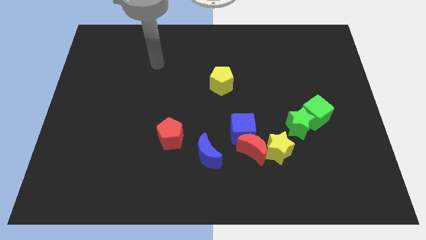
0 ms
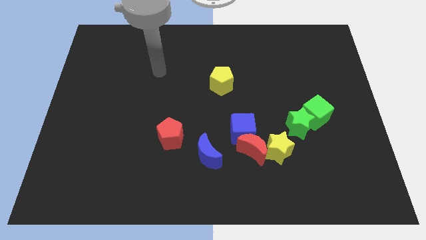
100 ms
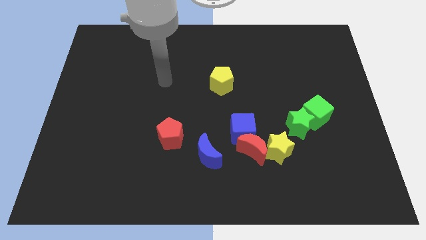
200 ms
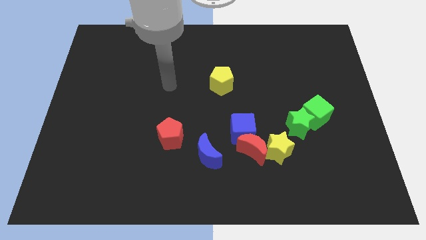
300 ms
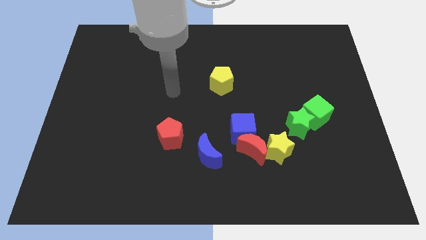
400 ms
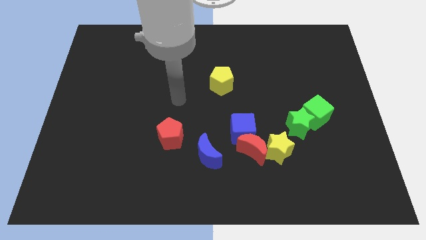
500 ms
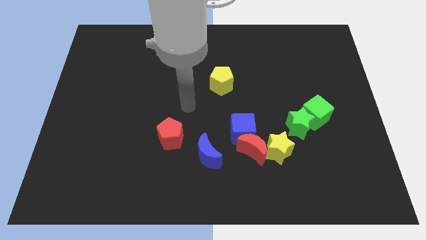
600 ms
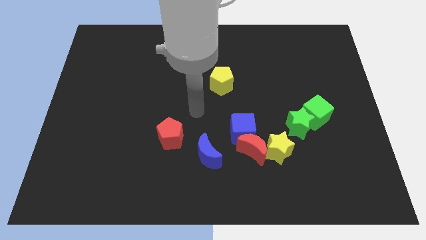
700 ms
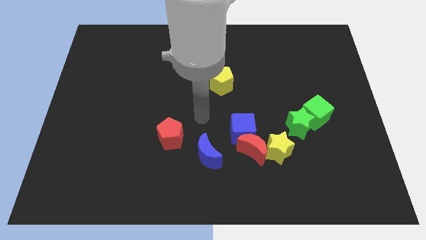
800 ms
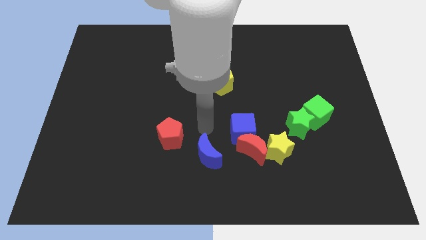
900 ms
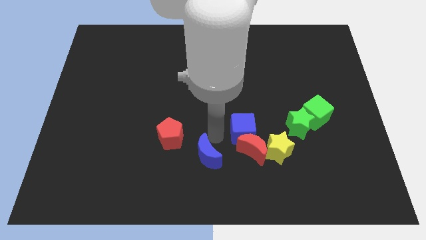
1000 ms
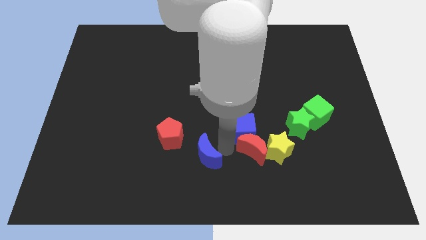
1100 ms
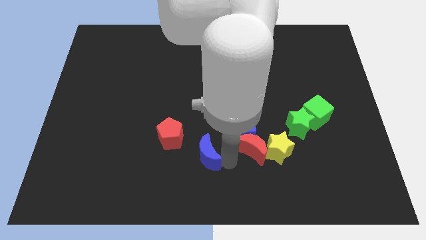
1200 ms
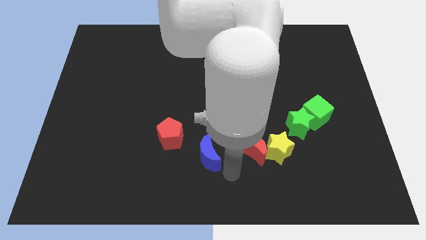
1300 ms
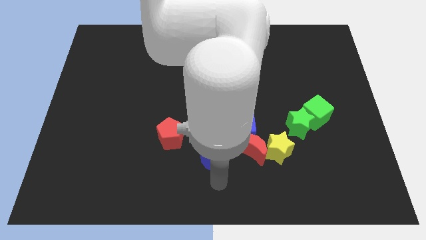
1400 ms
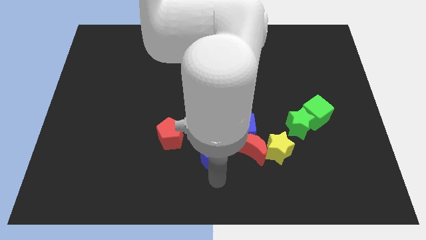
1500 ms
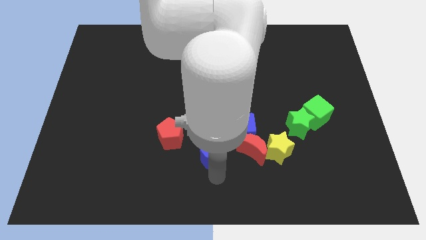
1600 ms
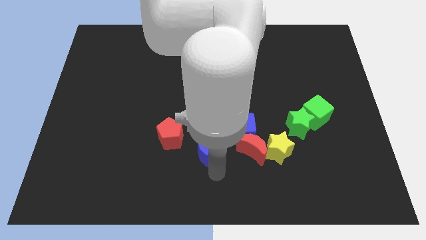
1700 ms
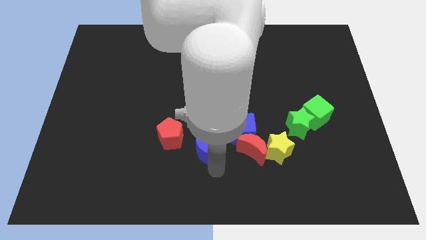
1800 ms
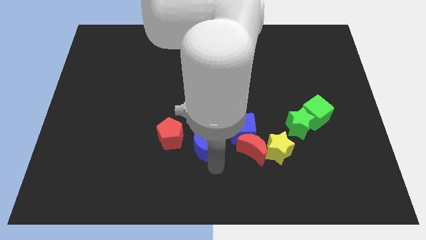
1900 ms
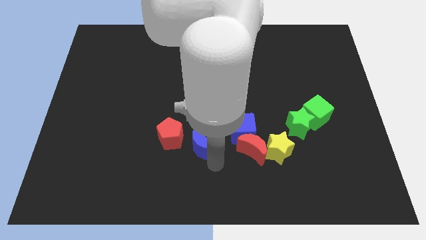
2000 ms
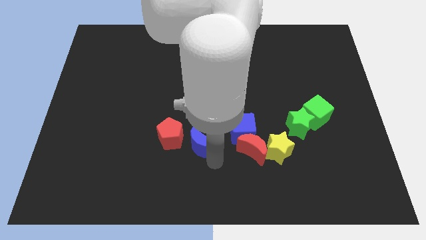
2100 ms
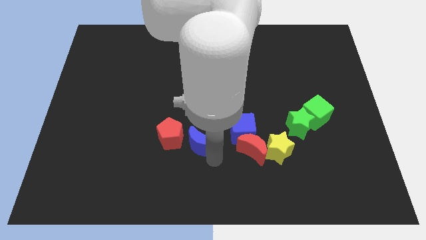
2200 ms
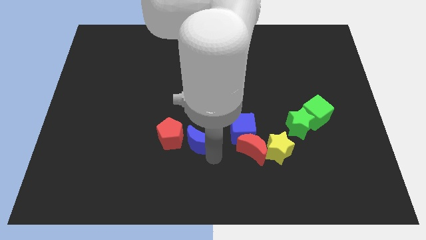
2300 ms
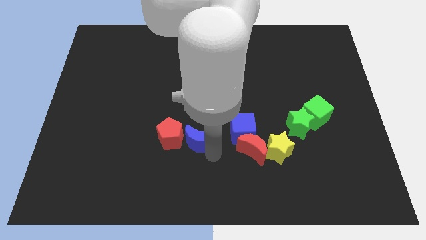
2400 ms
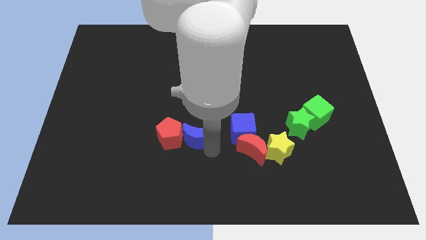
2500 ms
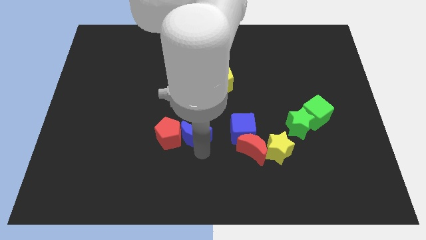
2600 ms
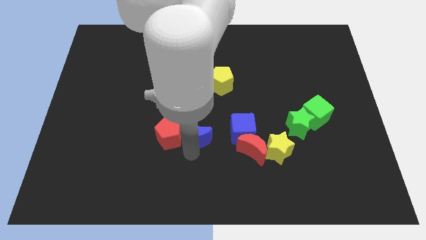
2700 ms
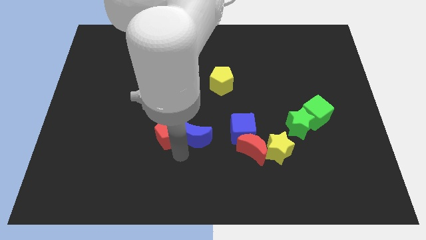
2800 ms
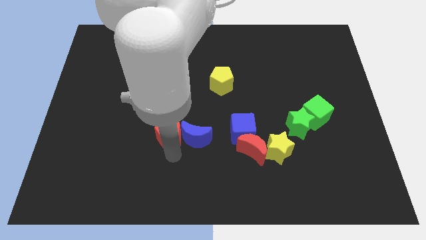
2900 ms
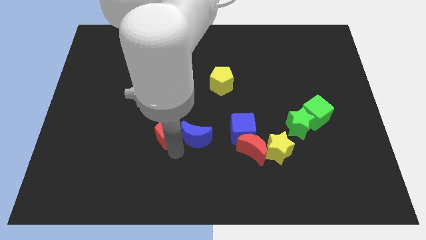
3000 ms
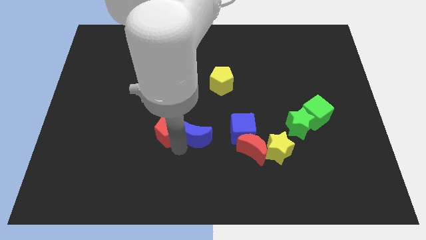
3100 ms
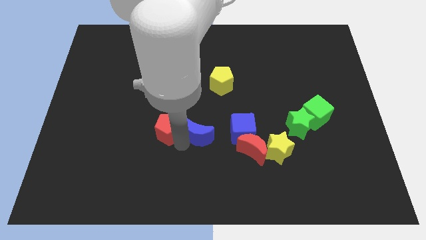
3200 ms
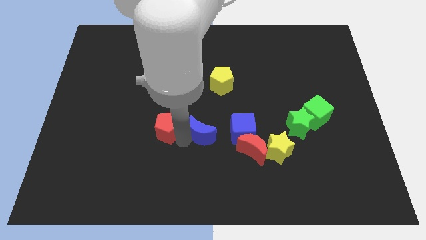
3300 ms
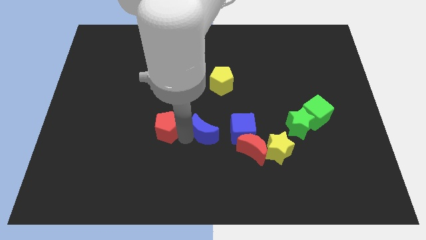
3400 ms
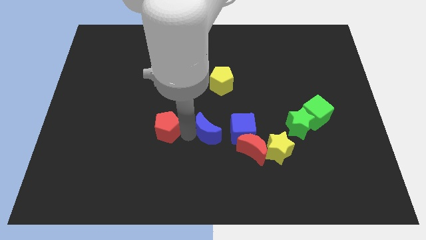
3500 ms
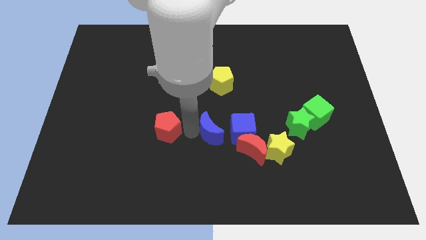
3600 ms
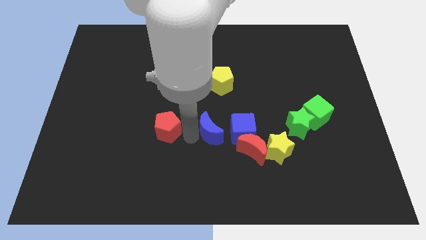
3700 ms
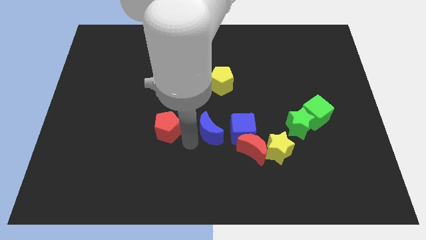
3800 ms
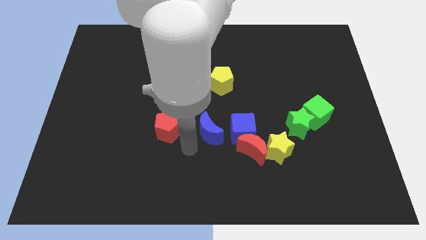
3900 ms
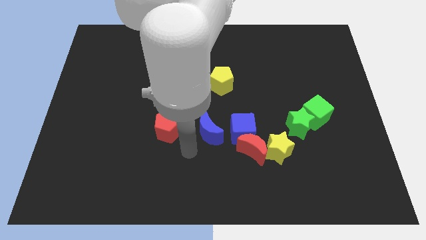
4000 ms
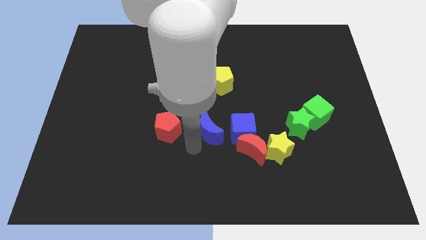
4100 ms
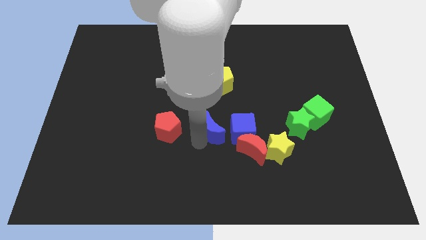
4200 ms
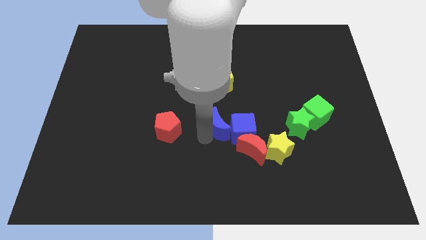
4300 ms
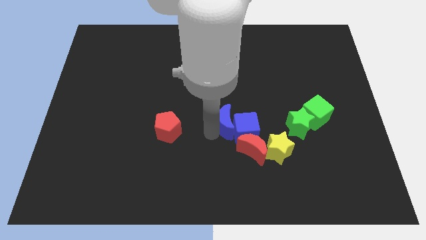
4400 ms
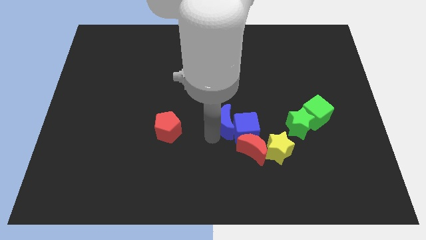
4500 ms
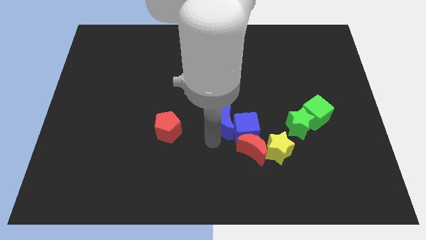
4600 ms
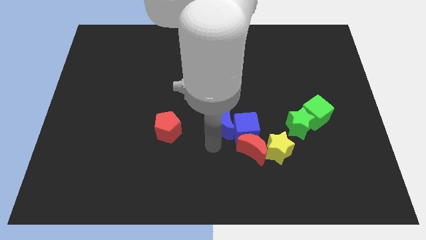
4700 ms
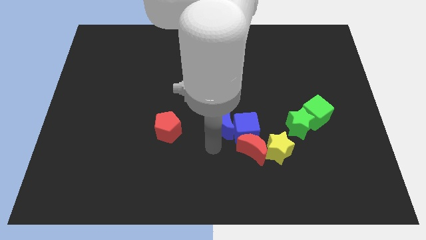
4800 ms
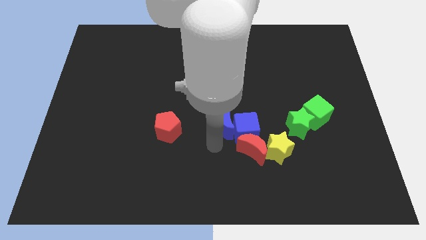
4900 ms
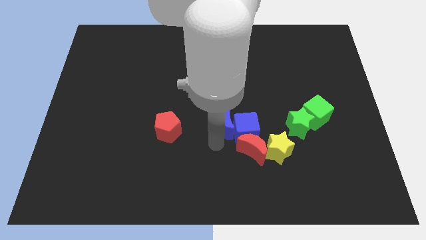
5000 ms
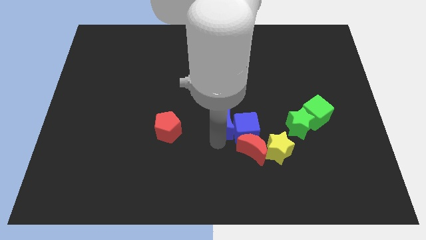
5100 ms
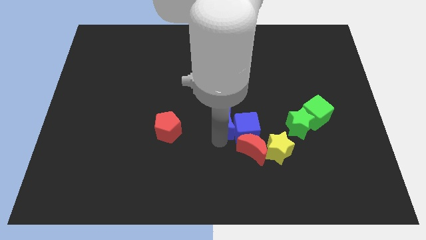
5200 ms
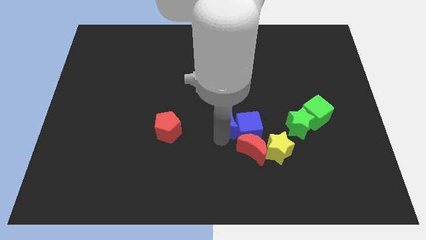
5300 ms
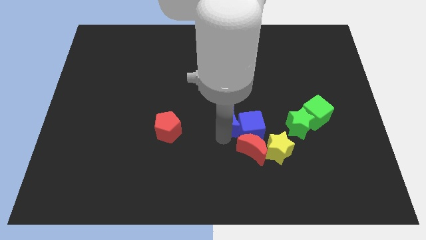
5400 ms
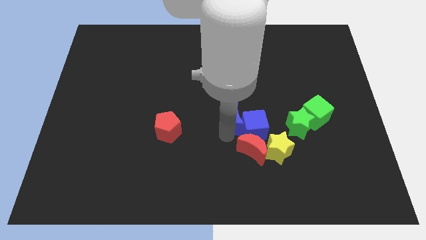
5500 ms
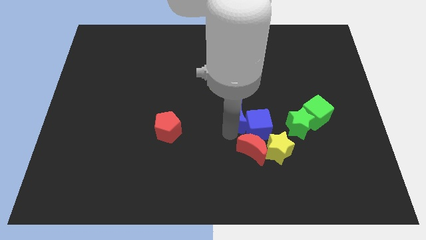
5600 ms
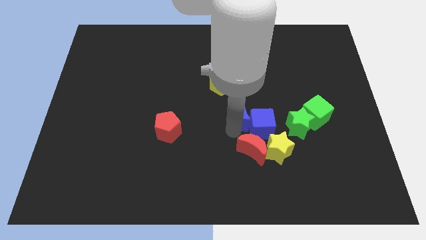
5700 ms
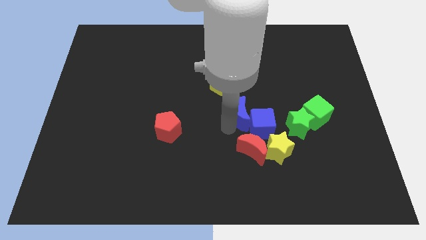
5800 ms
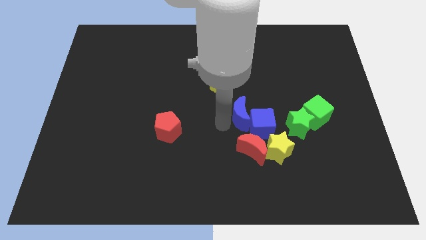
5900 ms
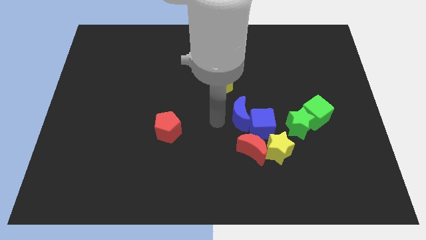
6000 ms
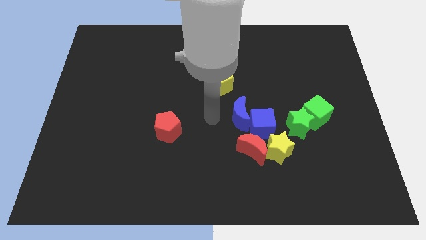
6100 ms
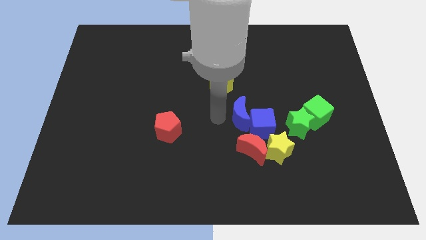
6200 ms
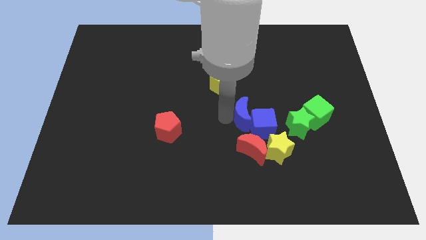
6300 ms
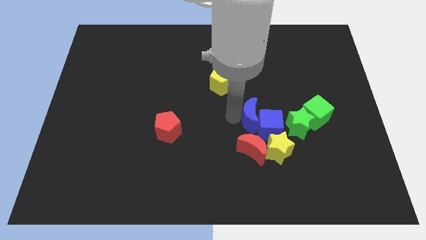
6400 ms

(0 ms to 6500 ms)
move the blue moon just left of the green cube

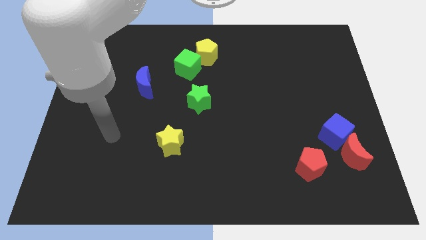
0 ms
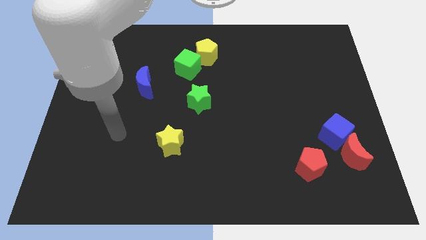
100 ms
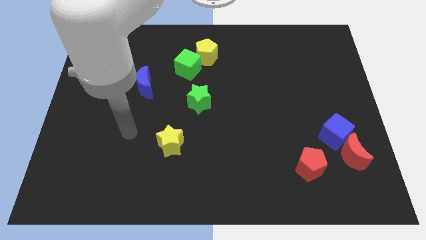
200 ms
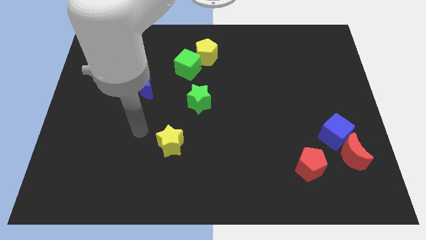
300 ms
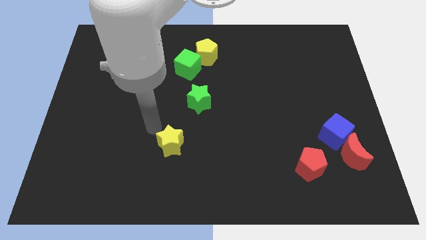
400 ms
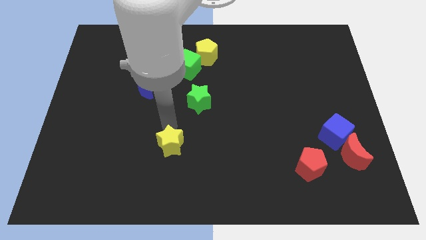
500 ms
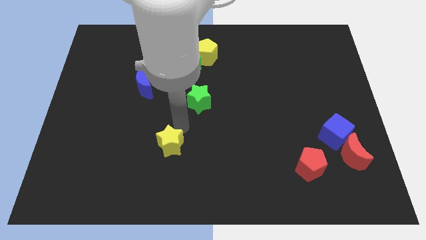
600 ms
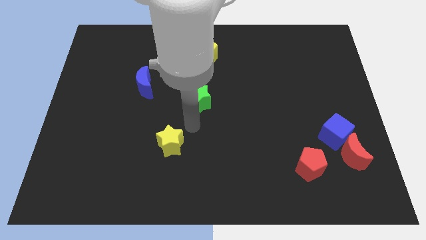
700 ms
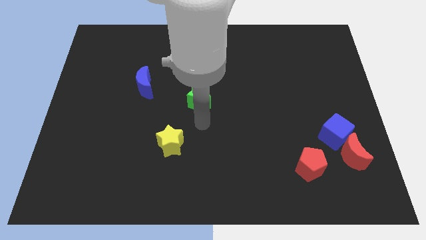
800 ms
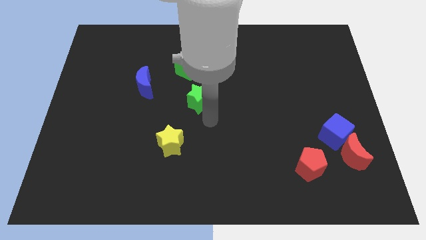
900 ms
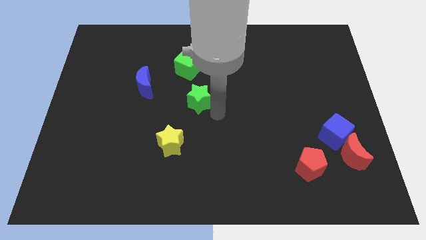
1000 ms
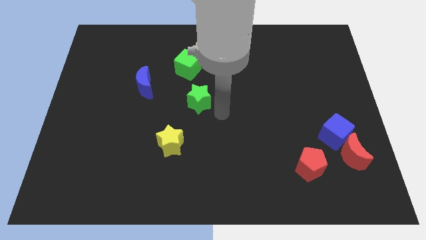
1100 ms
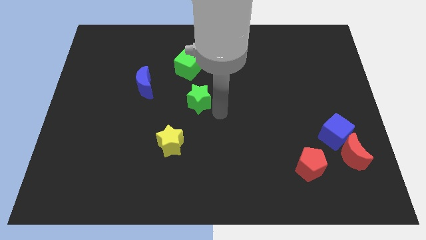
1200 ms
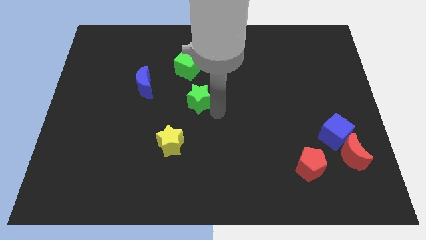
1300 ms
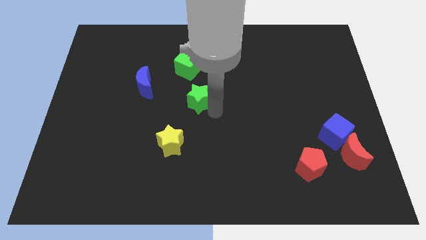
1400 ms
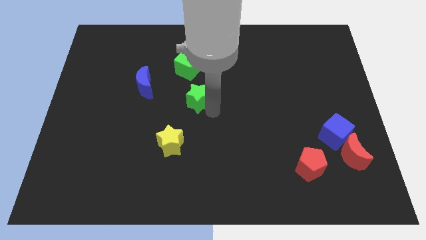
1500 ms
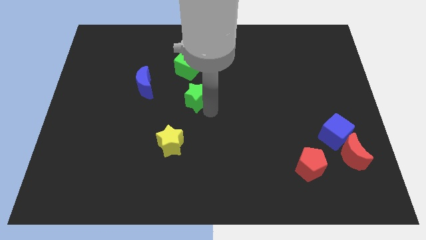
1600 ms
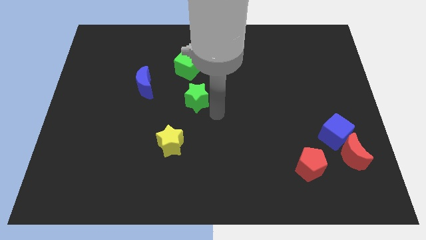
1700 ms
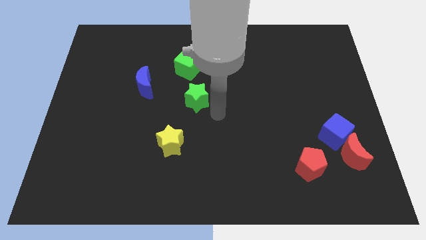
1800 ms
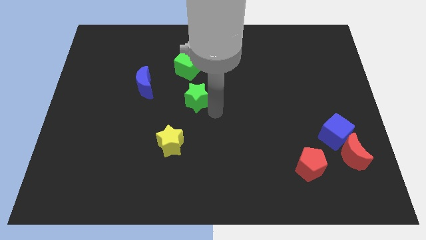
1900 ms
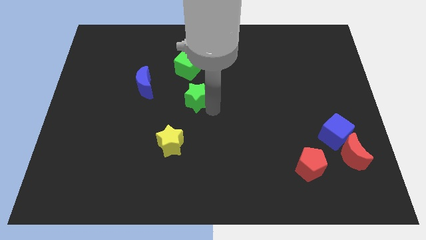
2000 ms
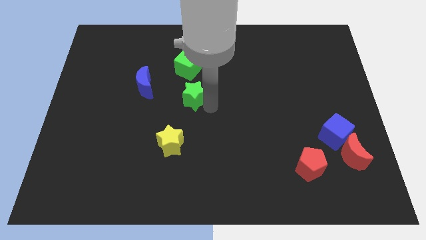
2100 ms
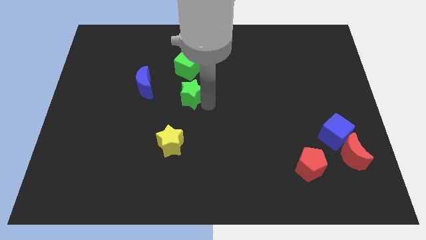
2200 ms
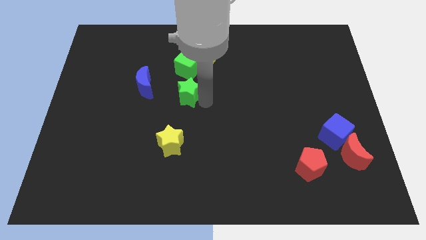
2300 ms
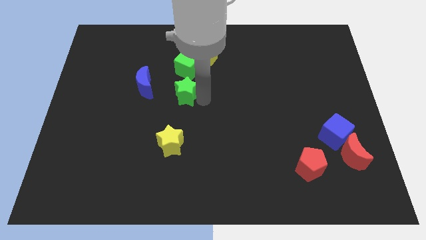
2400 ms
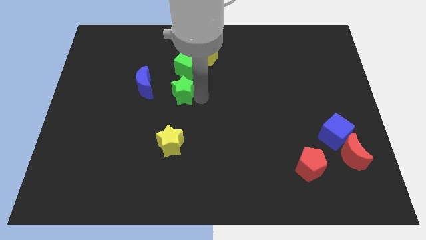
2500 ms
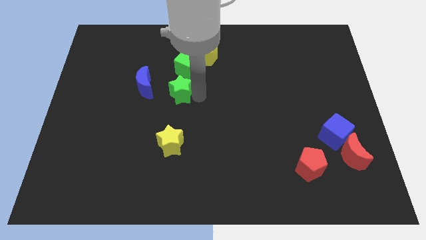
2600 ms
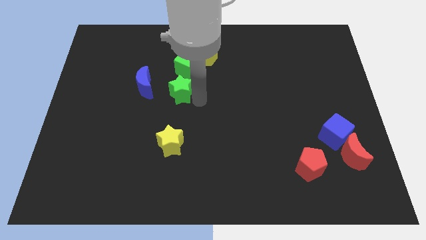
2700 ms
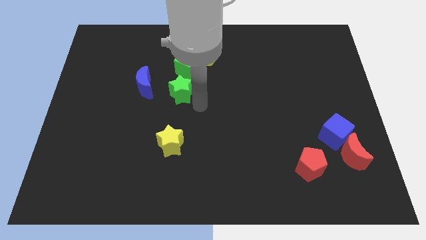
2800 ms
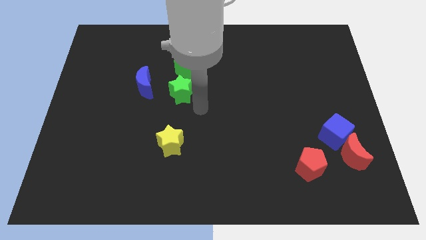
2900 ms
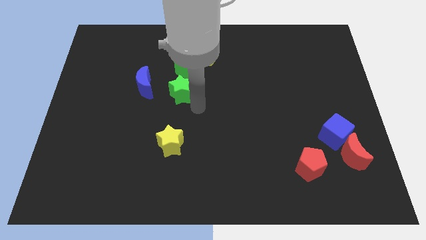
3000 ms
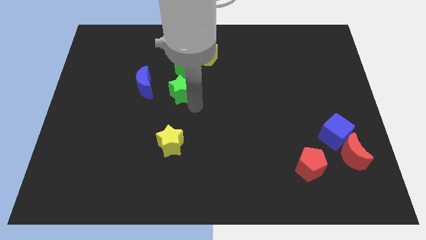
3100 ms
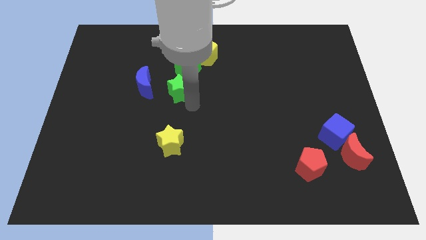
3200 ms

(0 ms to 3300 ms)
push the green star to the bottom left side of the green cube
